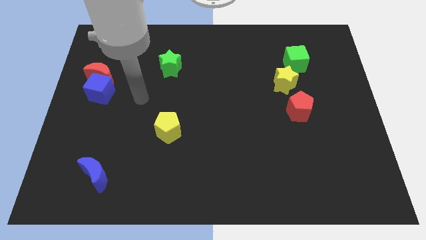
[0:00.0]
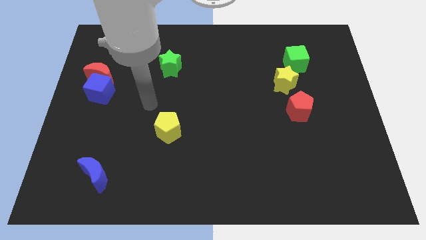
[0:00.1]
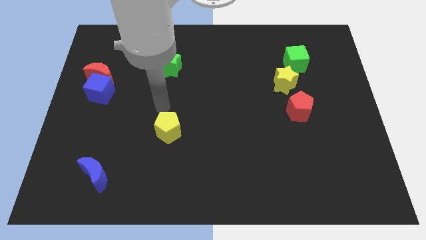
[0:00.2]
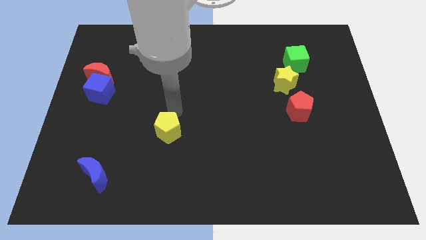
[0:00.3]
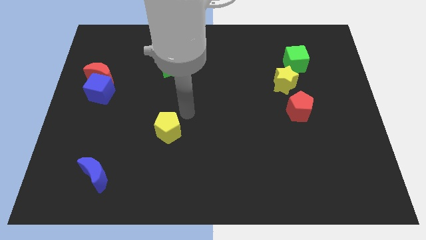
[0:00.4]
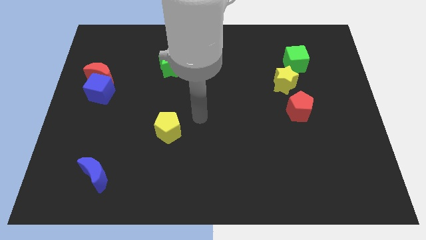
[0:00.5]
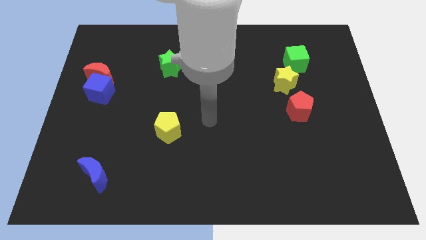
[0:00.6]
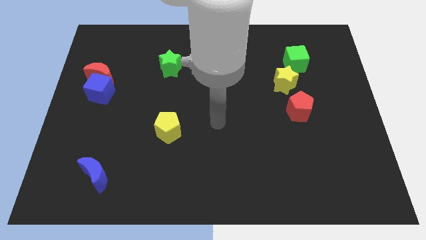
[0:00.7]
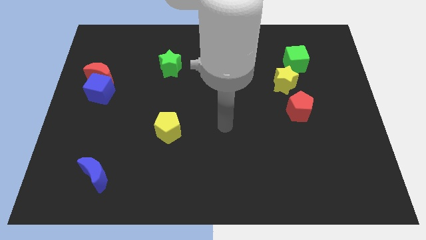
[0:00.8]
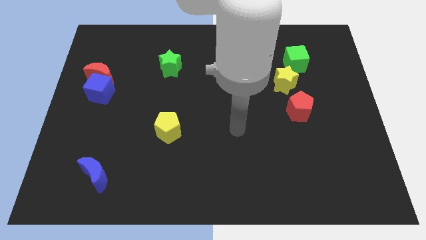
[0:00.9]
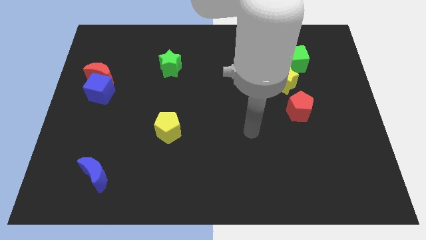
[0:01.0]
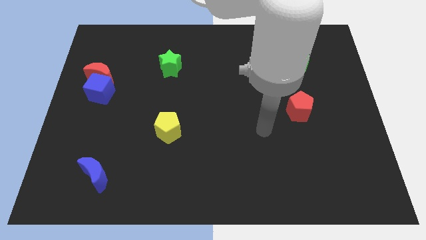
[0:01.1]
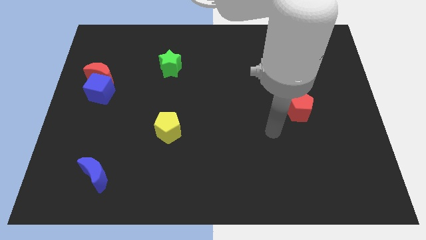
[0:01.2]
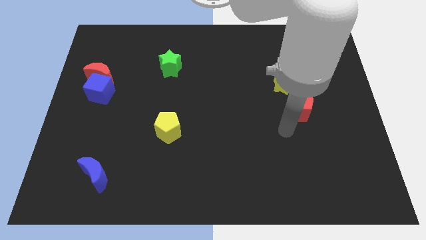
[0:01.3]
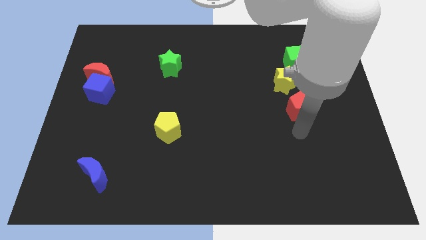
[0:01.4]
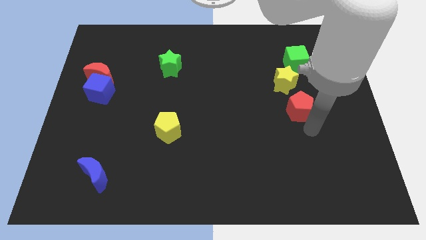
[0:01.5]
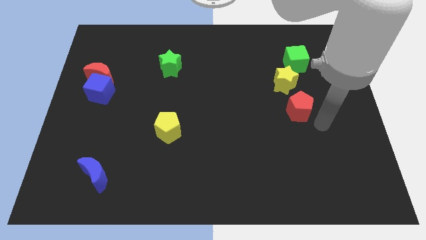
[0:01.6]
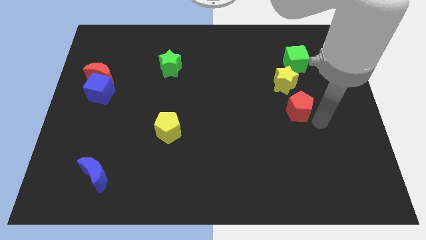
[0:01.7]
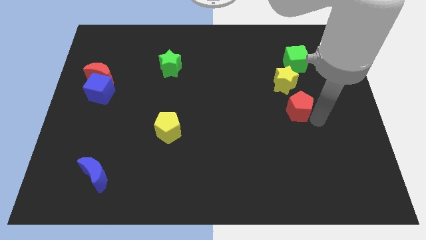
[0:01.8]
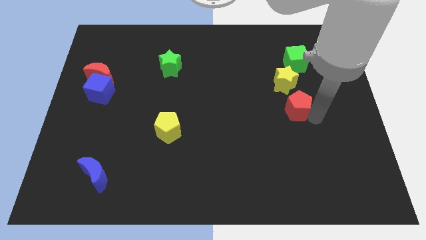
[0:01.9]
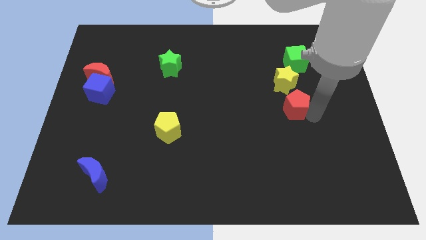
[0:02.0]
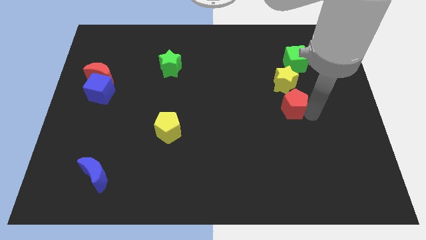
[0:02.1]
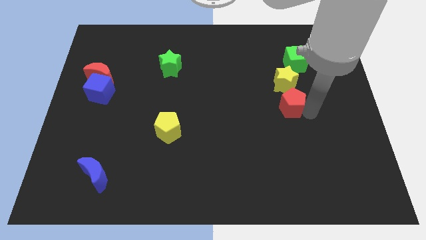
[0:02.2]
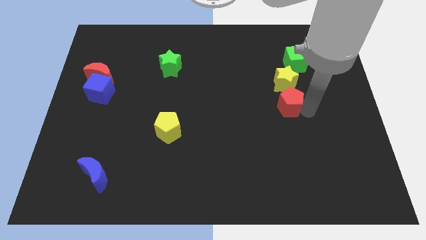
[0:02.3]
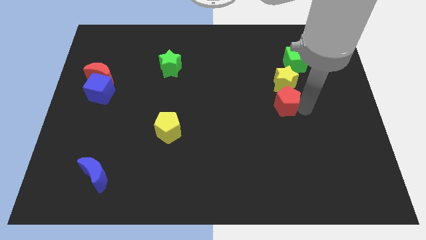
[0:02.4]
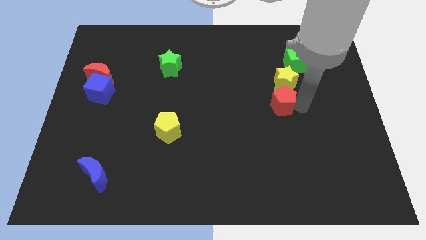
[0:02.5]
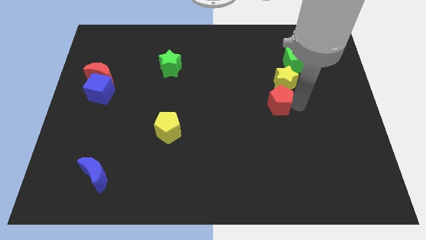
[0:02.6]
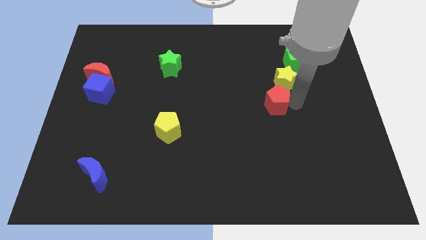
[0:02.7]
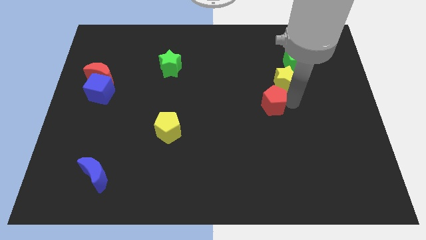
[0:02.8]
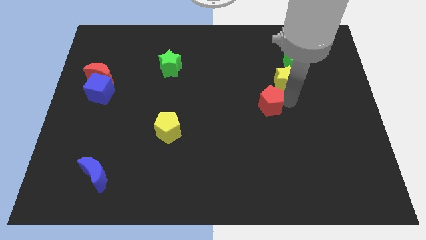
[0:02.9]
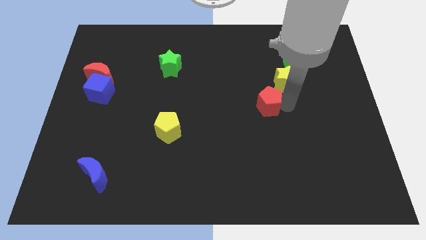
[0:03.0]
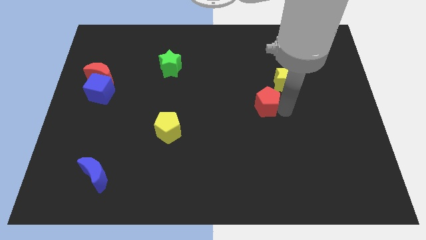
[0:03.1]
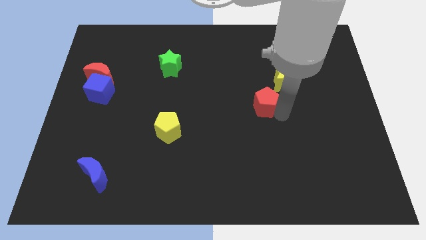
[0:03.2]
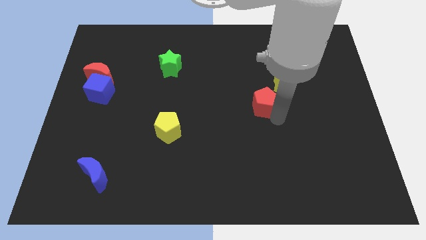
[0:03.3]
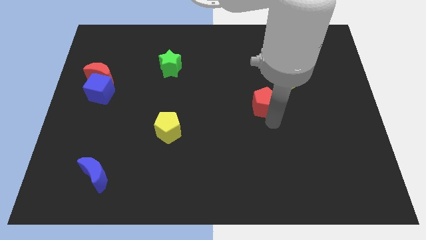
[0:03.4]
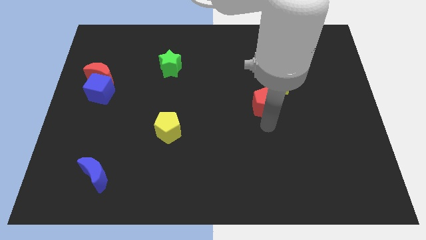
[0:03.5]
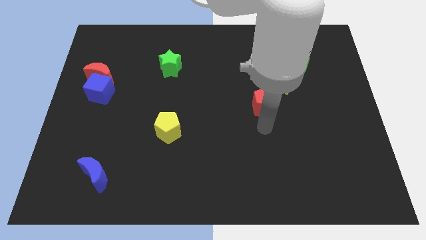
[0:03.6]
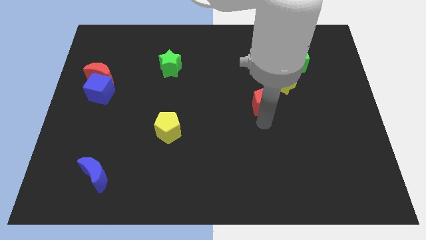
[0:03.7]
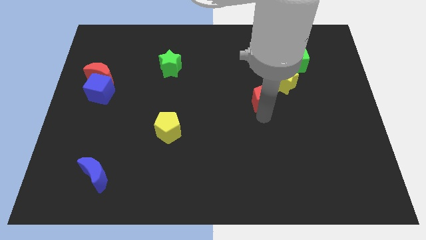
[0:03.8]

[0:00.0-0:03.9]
slide the red pentagon slightly diagonally up and to the left

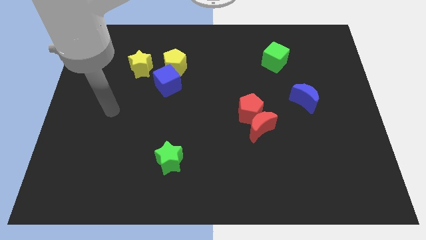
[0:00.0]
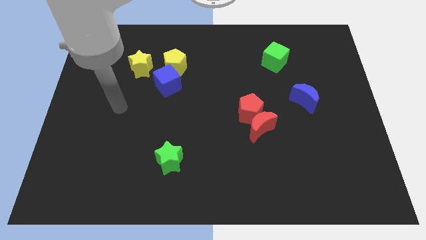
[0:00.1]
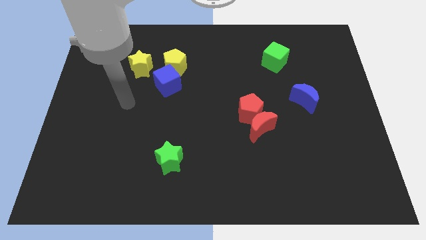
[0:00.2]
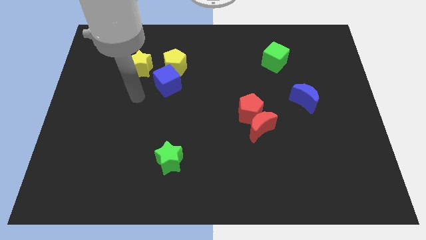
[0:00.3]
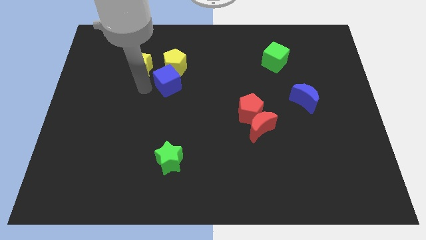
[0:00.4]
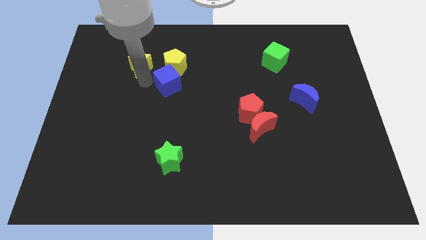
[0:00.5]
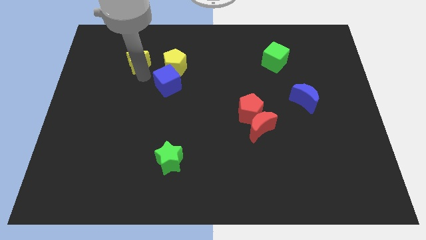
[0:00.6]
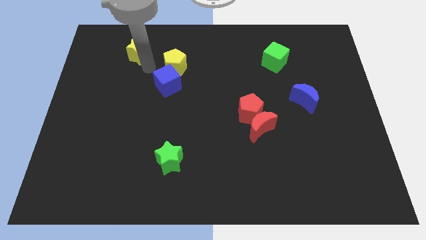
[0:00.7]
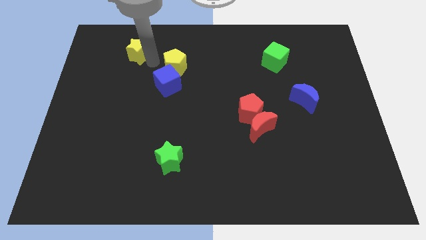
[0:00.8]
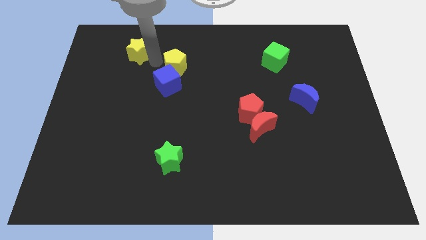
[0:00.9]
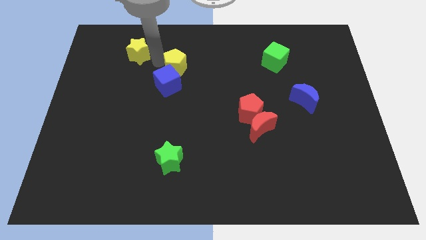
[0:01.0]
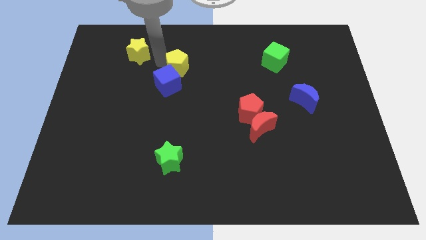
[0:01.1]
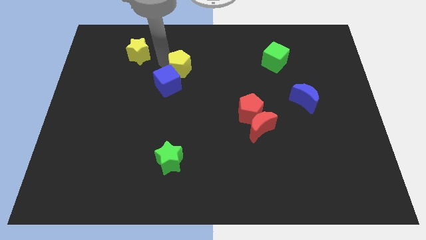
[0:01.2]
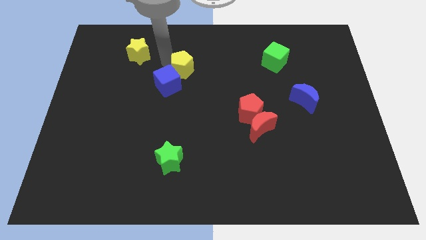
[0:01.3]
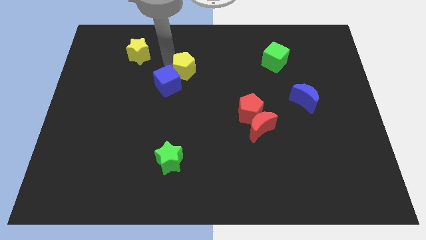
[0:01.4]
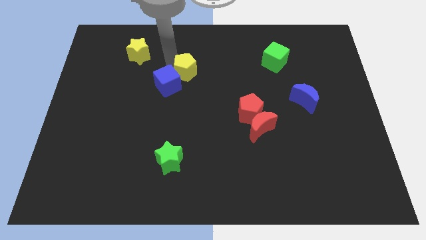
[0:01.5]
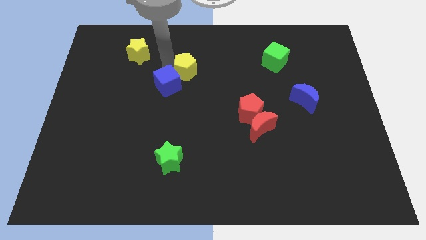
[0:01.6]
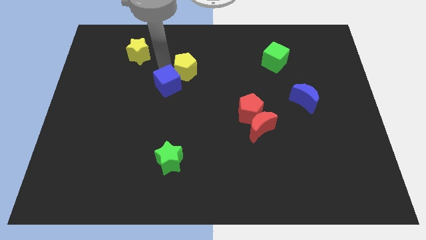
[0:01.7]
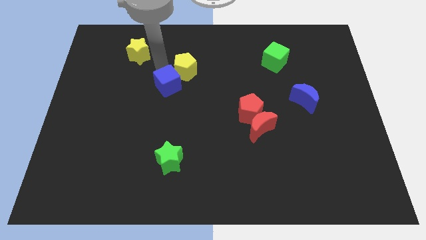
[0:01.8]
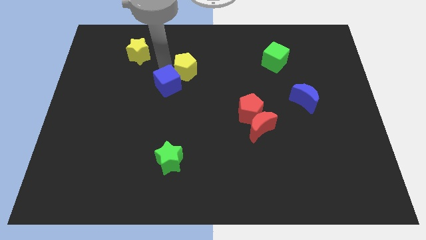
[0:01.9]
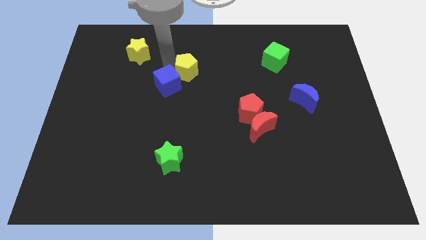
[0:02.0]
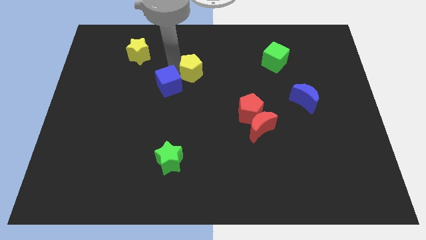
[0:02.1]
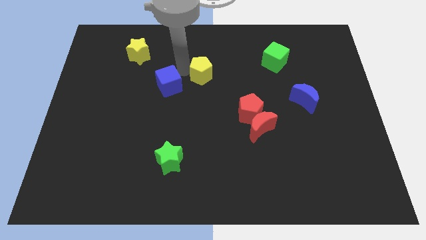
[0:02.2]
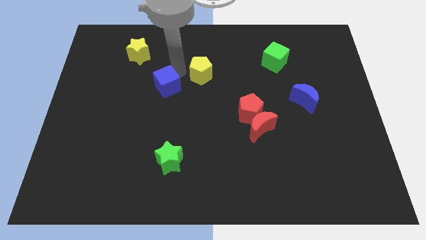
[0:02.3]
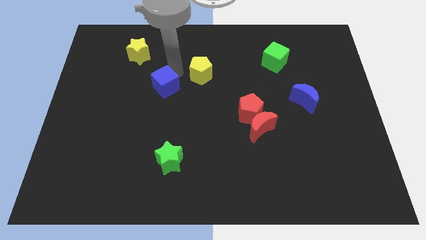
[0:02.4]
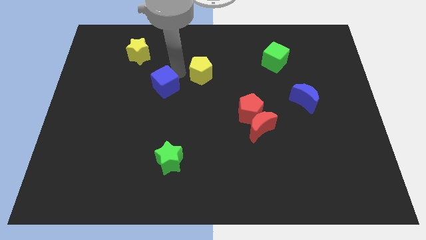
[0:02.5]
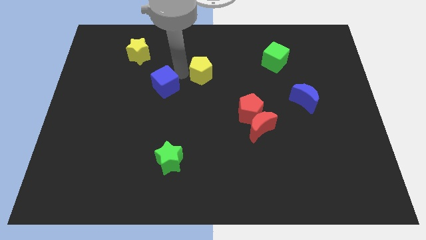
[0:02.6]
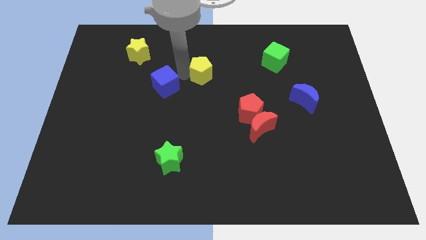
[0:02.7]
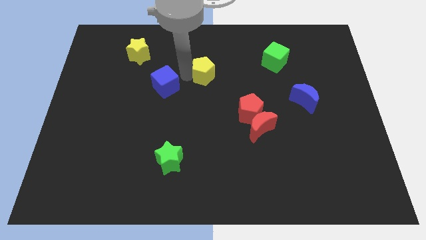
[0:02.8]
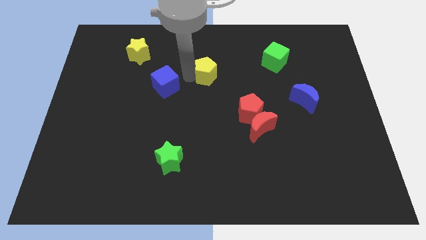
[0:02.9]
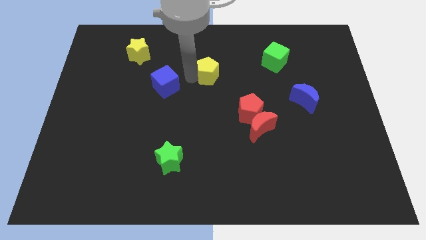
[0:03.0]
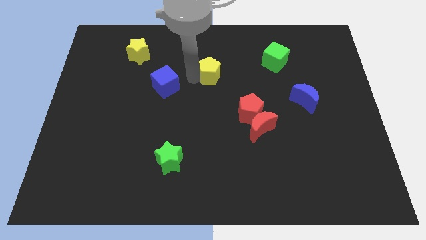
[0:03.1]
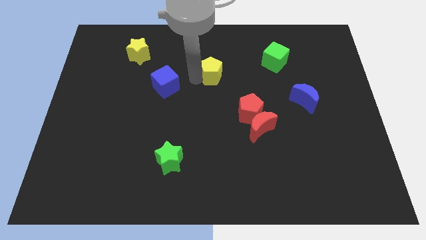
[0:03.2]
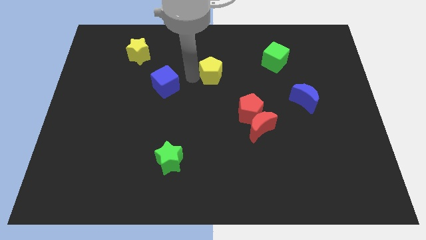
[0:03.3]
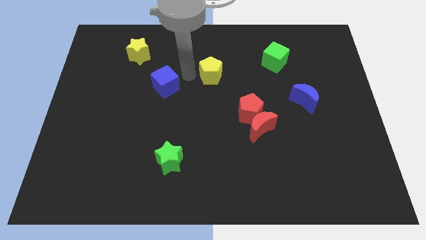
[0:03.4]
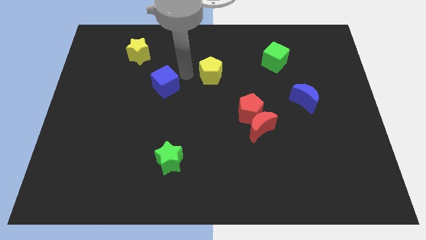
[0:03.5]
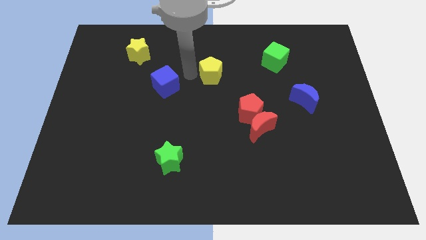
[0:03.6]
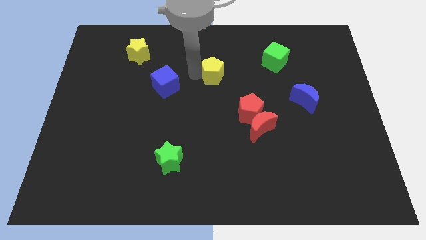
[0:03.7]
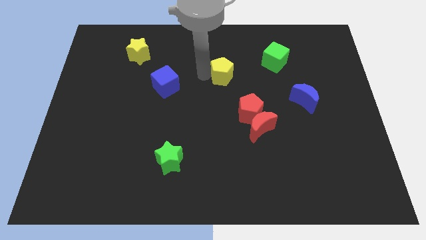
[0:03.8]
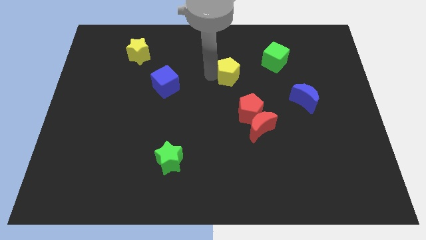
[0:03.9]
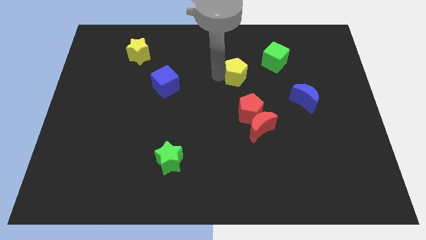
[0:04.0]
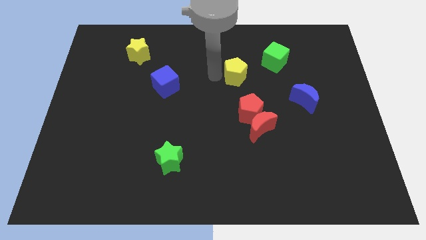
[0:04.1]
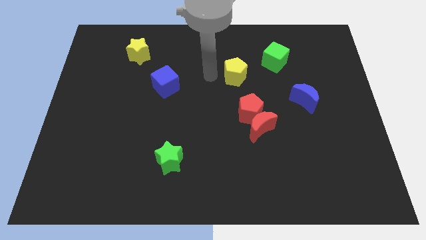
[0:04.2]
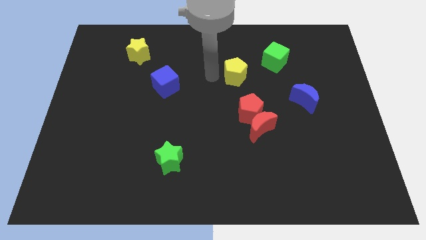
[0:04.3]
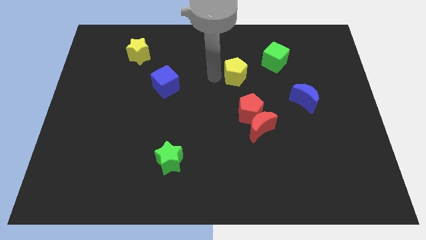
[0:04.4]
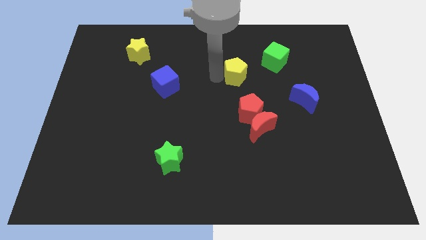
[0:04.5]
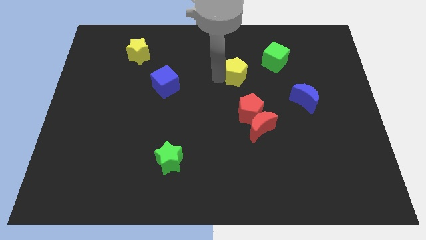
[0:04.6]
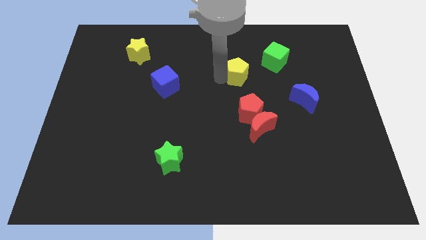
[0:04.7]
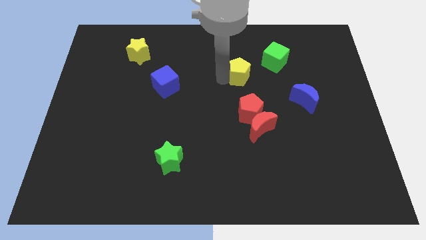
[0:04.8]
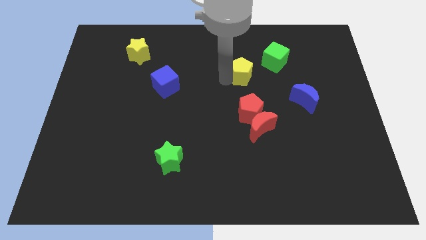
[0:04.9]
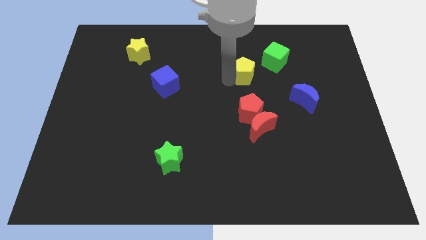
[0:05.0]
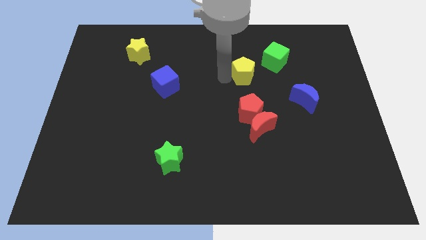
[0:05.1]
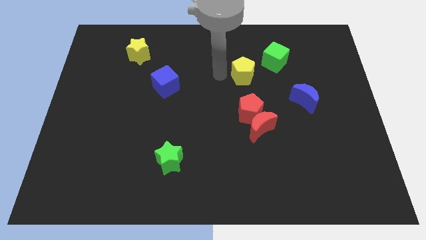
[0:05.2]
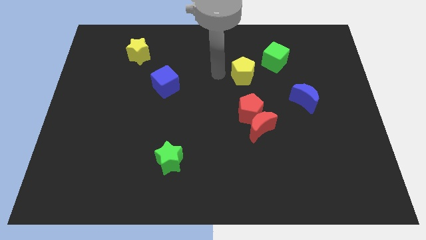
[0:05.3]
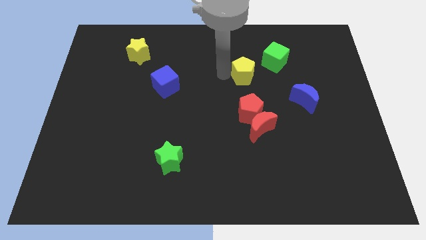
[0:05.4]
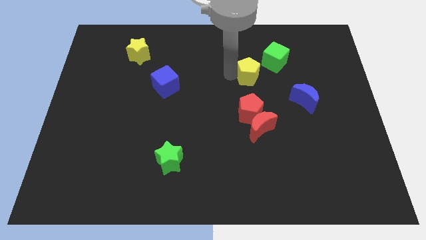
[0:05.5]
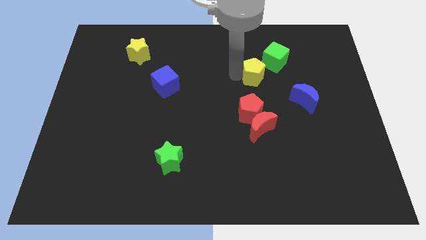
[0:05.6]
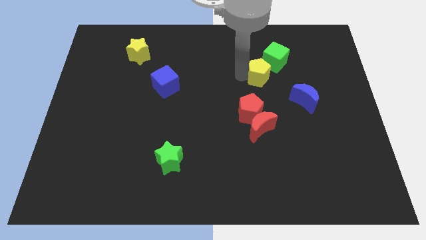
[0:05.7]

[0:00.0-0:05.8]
slide the yellow pentagon to the right
